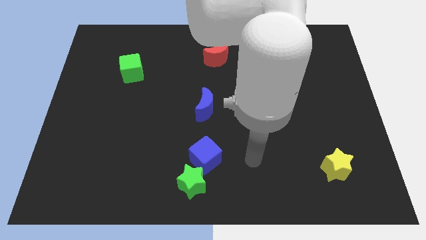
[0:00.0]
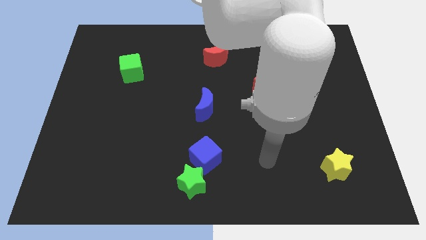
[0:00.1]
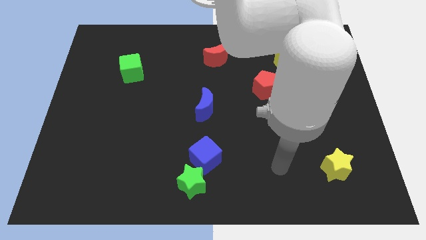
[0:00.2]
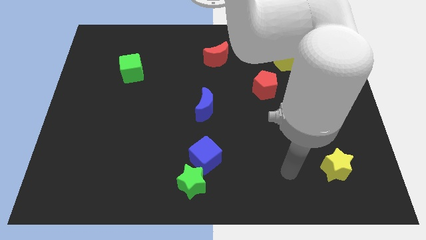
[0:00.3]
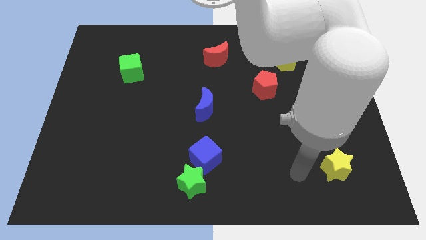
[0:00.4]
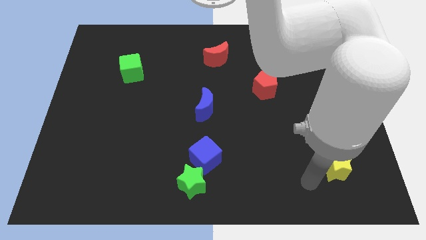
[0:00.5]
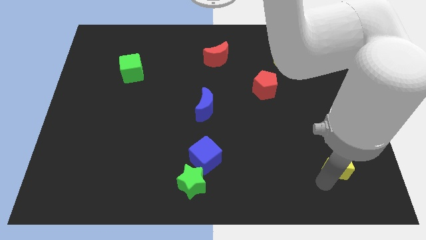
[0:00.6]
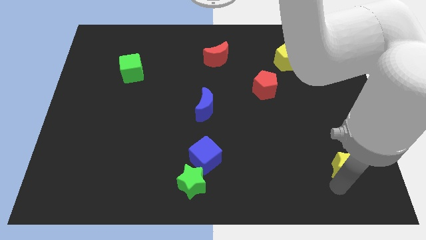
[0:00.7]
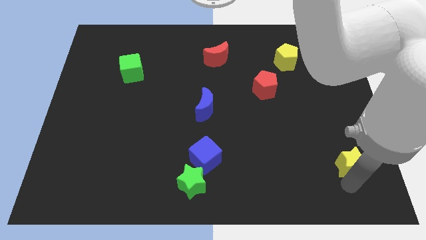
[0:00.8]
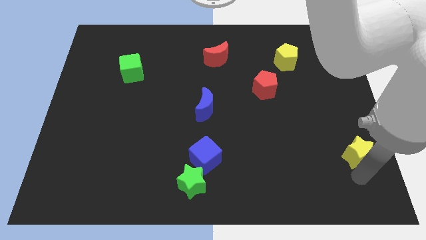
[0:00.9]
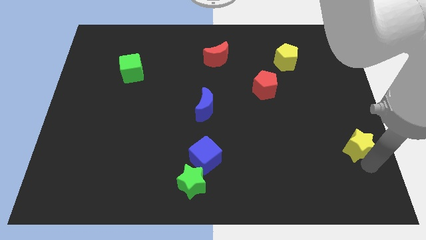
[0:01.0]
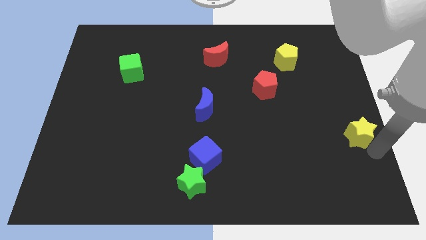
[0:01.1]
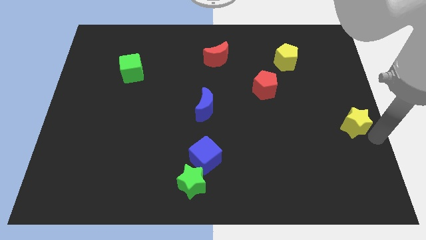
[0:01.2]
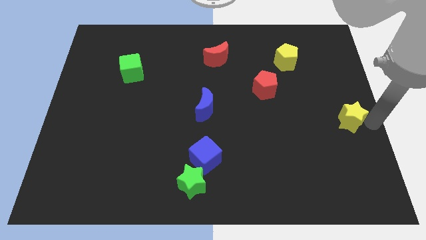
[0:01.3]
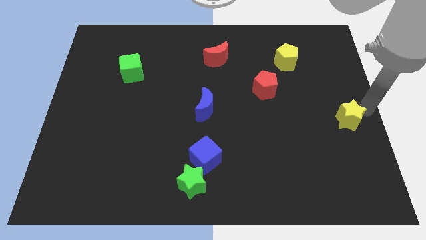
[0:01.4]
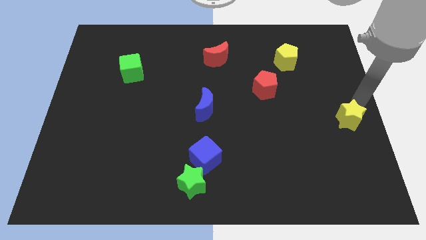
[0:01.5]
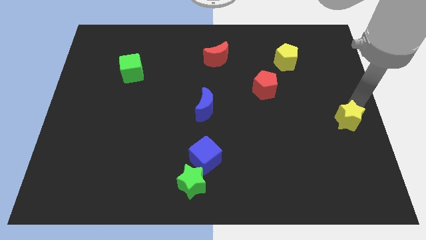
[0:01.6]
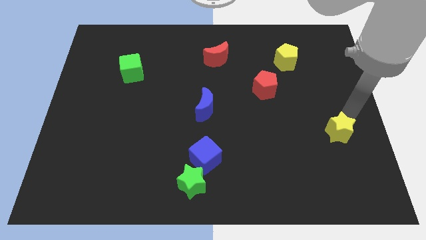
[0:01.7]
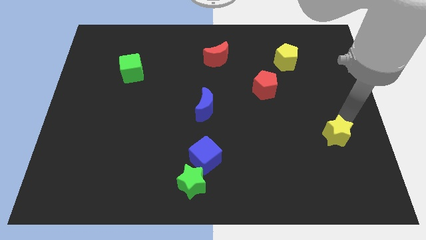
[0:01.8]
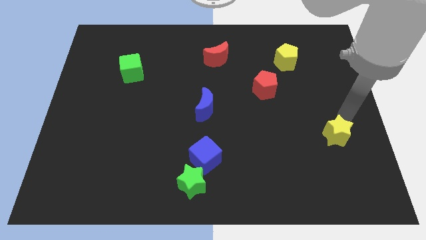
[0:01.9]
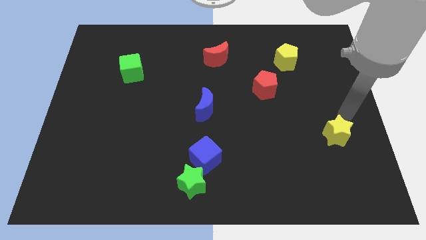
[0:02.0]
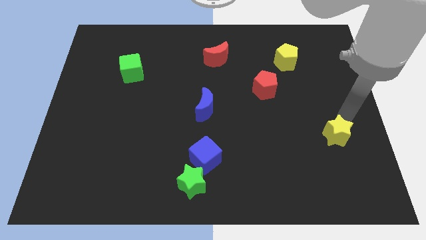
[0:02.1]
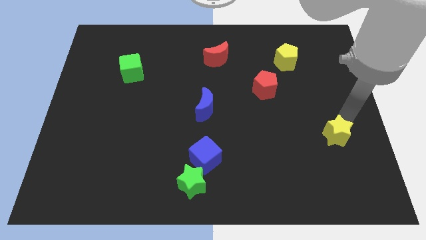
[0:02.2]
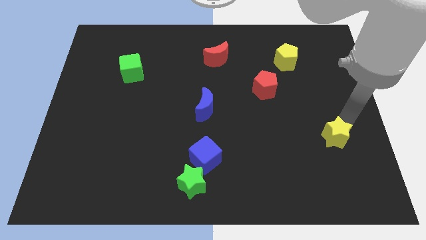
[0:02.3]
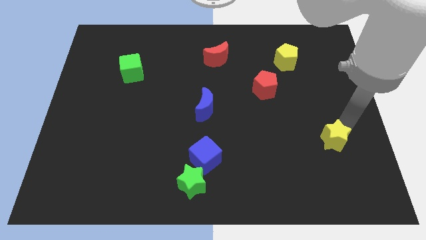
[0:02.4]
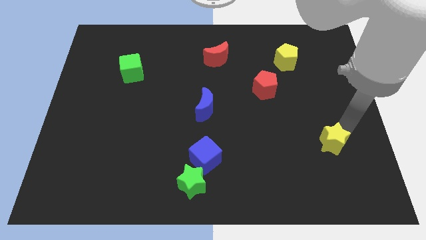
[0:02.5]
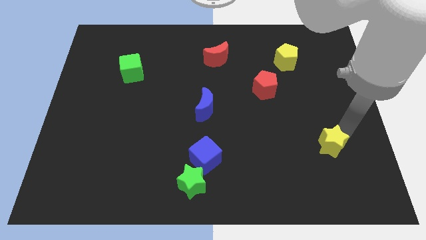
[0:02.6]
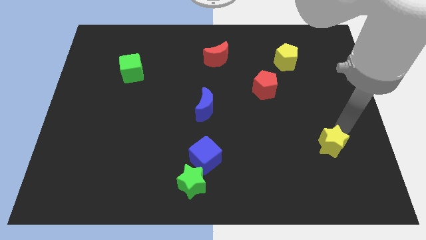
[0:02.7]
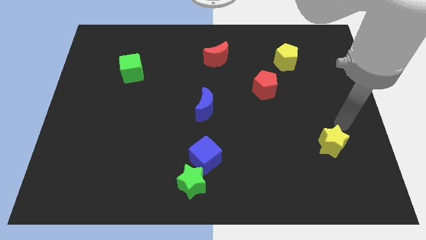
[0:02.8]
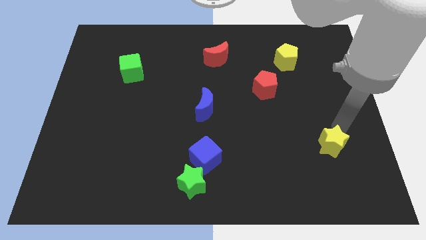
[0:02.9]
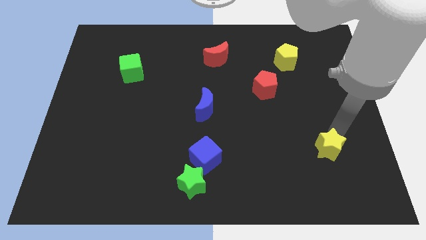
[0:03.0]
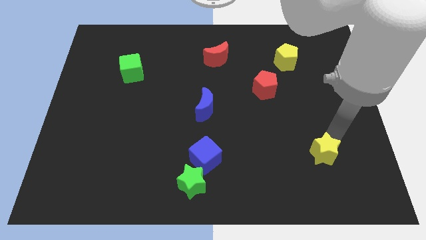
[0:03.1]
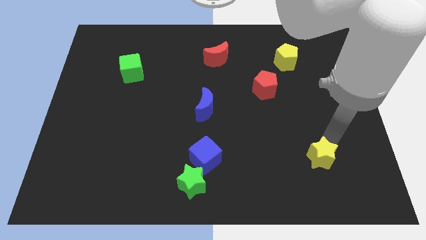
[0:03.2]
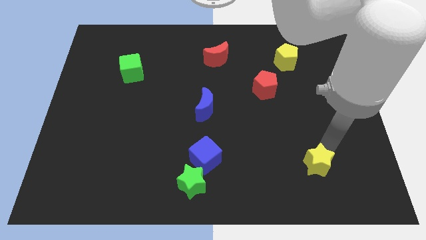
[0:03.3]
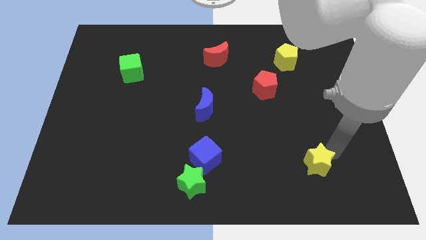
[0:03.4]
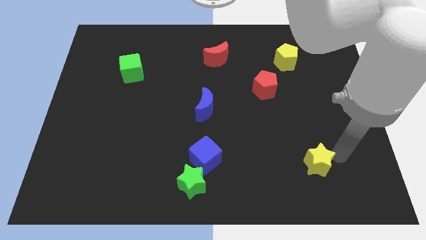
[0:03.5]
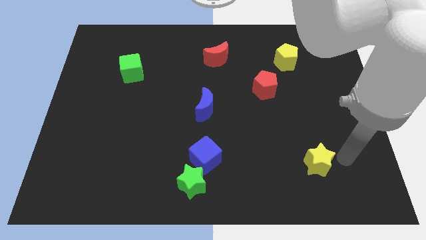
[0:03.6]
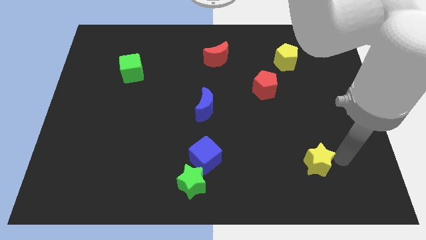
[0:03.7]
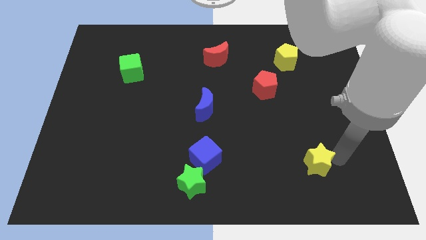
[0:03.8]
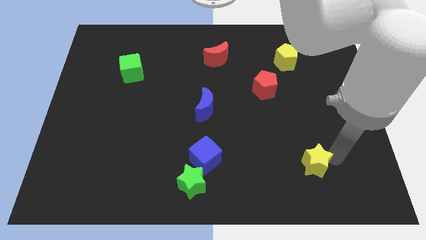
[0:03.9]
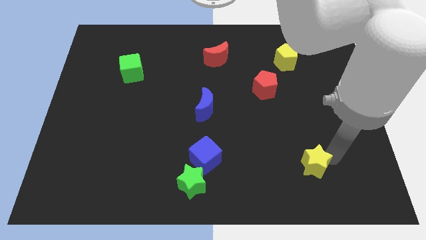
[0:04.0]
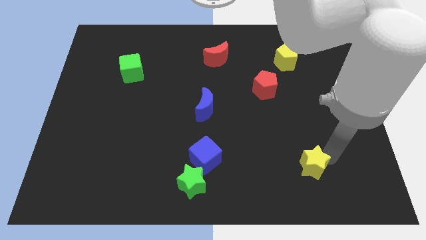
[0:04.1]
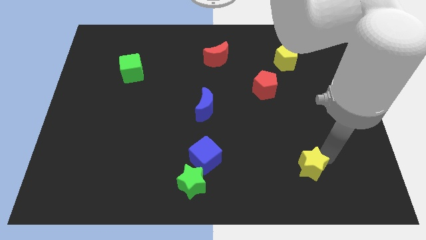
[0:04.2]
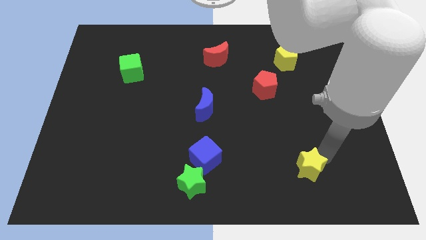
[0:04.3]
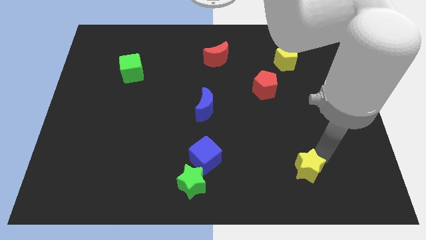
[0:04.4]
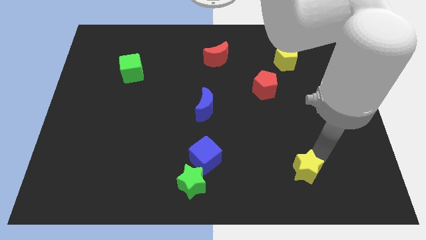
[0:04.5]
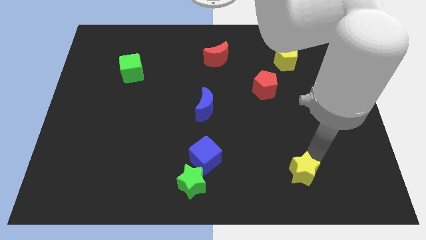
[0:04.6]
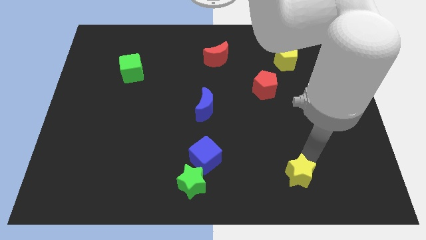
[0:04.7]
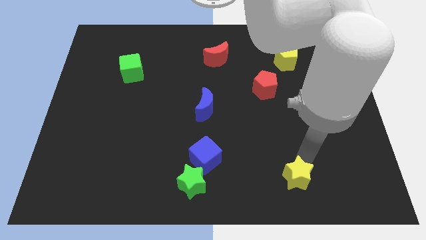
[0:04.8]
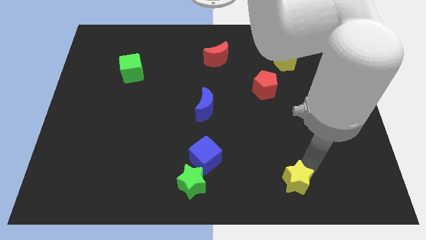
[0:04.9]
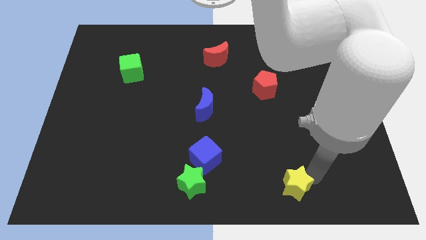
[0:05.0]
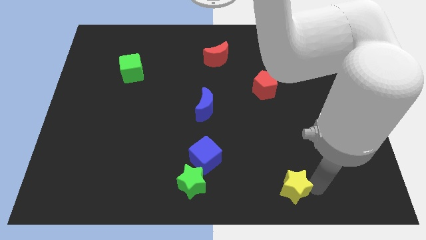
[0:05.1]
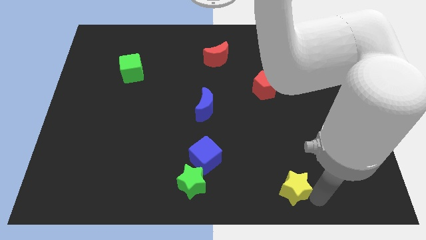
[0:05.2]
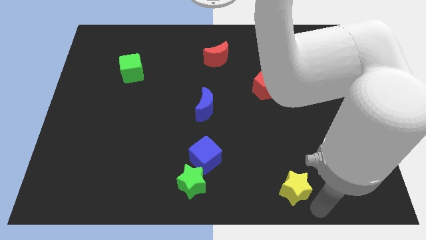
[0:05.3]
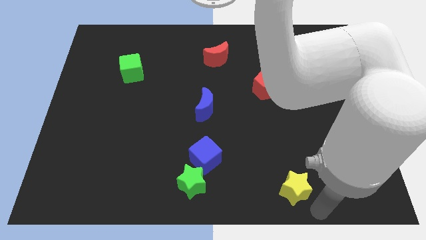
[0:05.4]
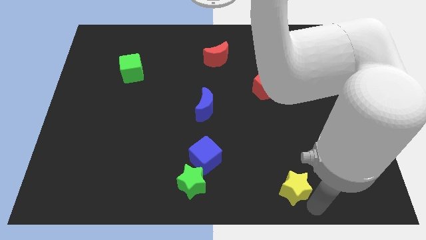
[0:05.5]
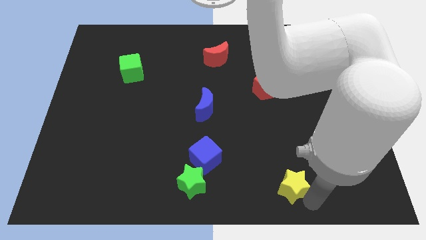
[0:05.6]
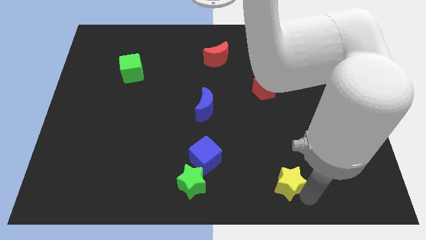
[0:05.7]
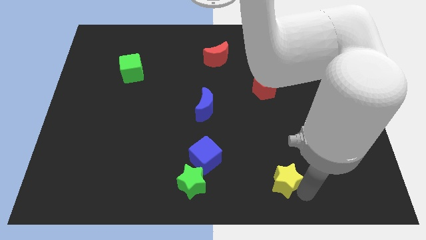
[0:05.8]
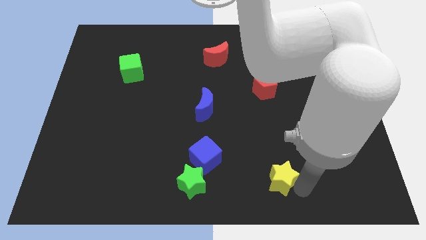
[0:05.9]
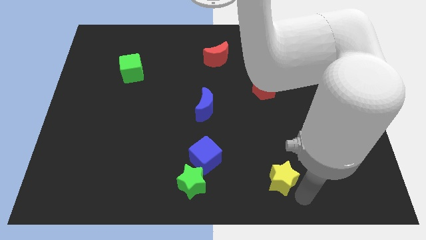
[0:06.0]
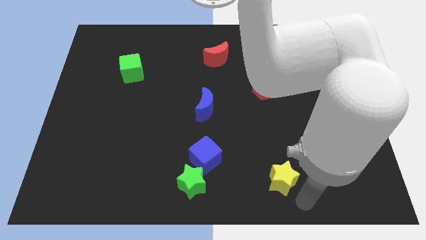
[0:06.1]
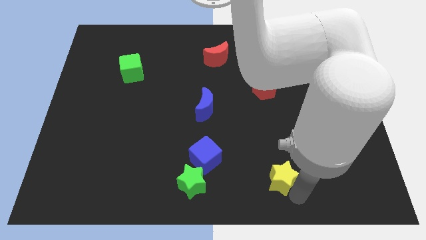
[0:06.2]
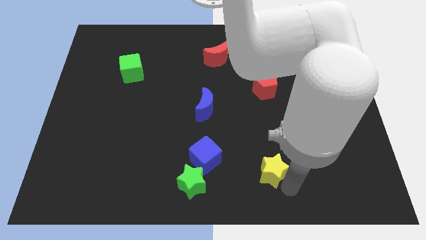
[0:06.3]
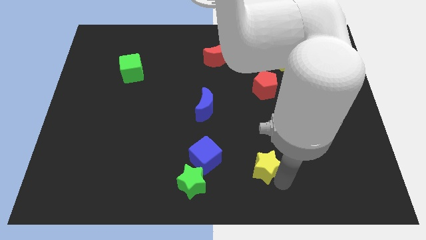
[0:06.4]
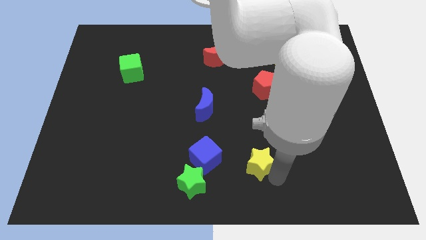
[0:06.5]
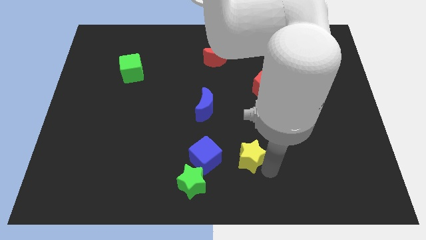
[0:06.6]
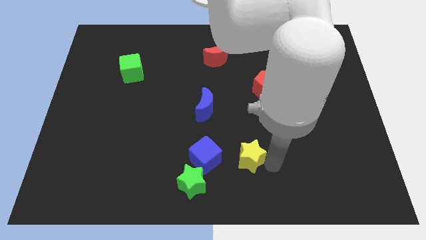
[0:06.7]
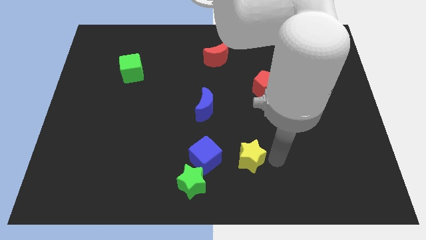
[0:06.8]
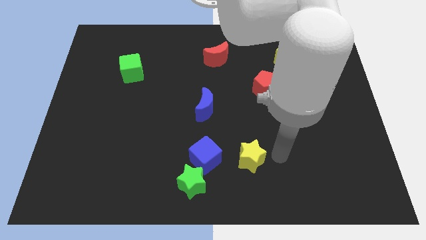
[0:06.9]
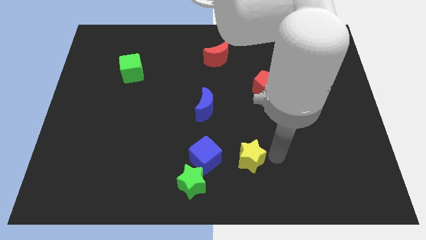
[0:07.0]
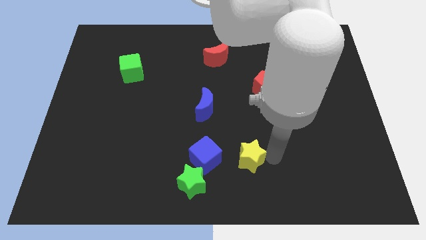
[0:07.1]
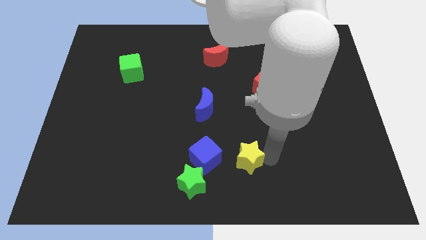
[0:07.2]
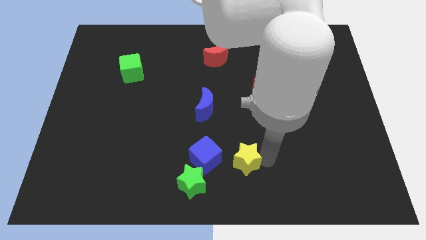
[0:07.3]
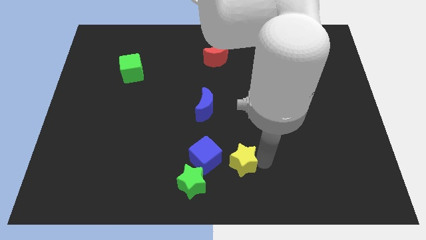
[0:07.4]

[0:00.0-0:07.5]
push the yellow star to the top right of the green star
